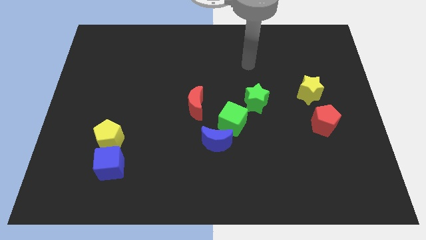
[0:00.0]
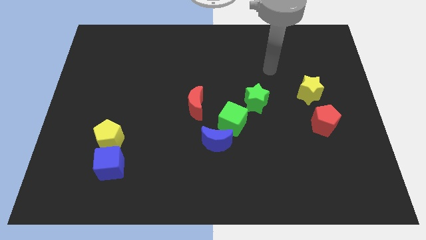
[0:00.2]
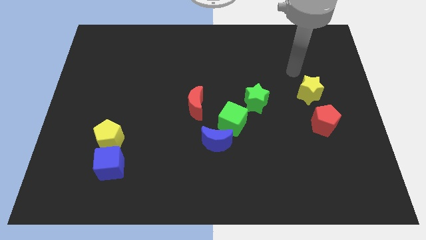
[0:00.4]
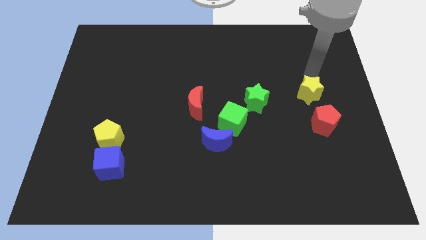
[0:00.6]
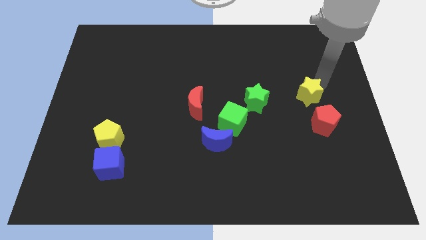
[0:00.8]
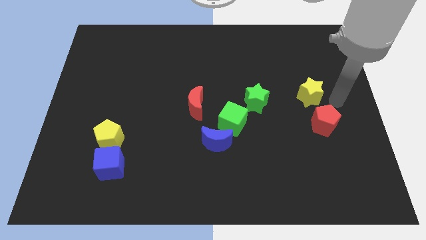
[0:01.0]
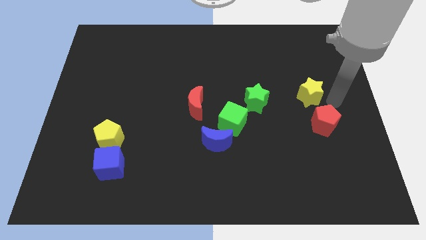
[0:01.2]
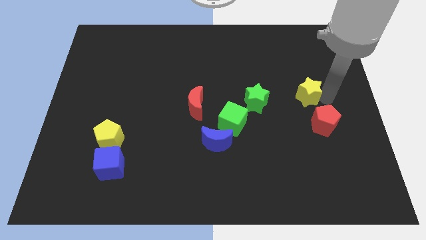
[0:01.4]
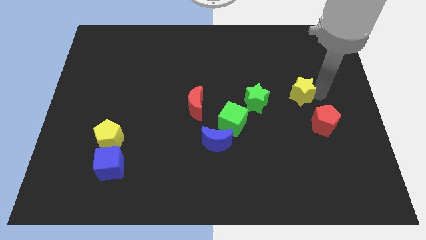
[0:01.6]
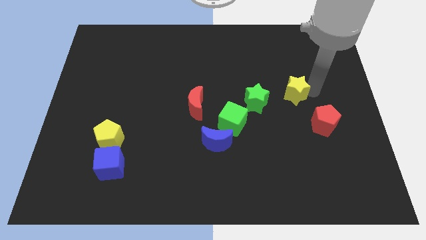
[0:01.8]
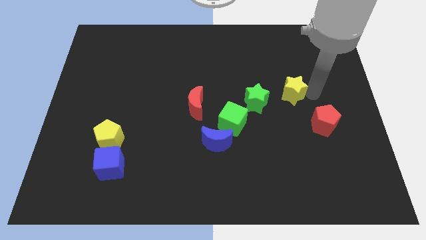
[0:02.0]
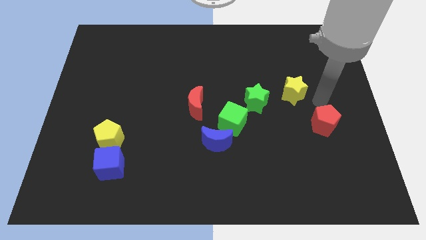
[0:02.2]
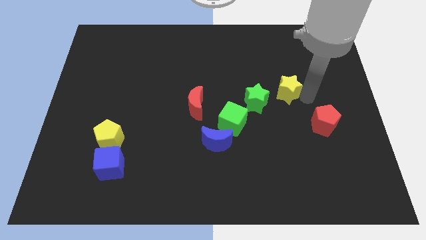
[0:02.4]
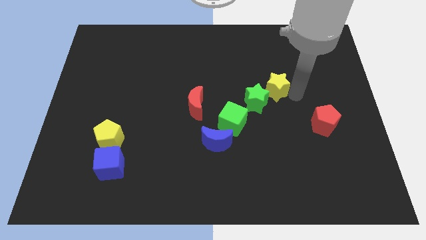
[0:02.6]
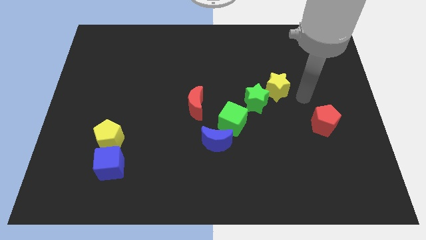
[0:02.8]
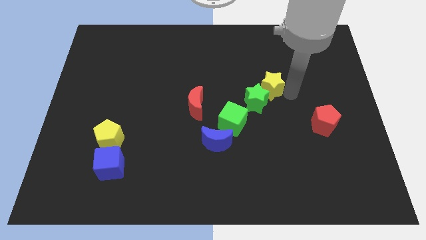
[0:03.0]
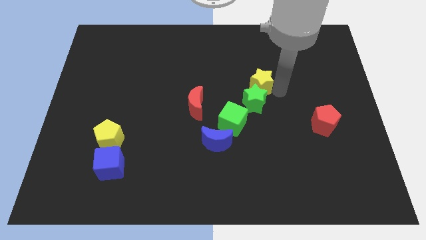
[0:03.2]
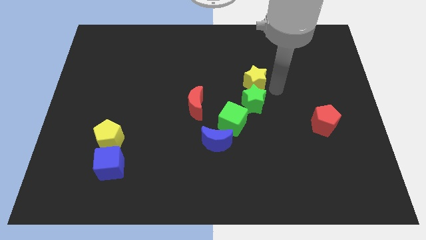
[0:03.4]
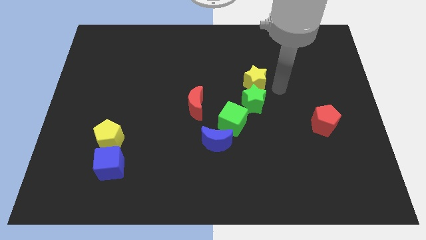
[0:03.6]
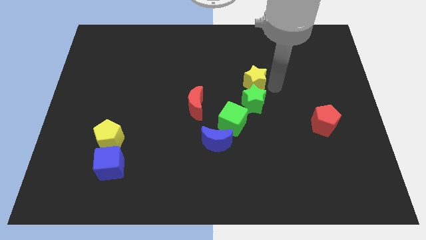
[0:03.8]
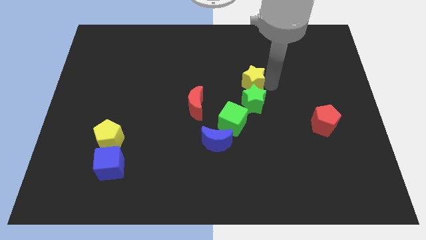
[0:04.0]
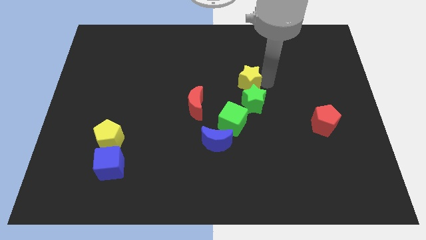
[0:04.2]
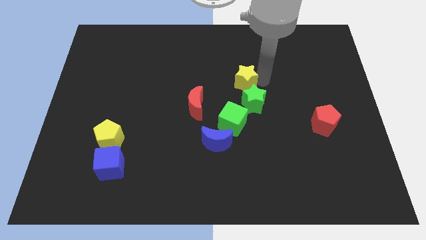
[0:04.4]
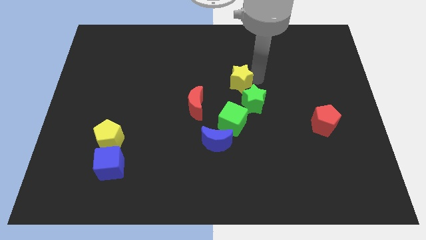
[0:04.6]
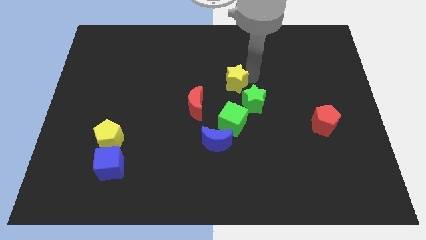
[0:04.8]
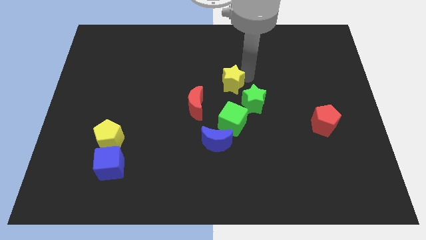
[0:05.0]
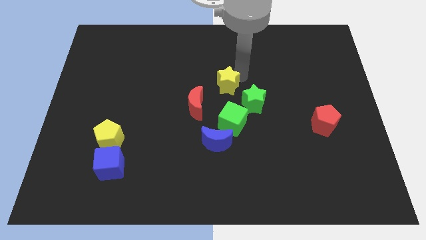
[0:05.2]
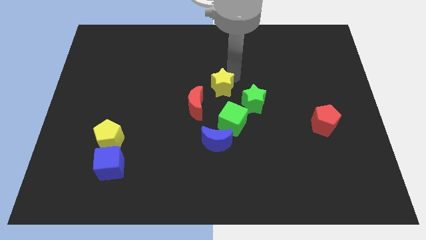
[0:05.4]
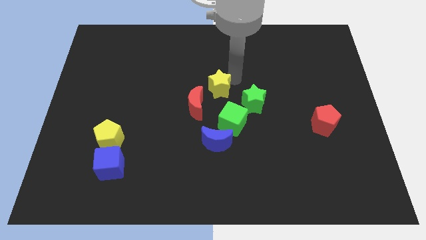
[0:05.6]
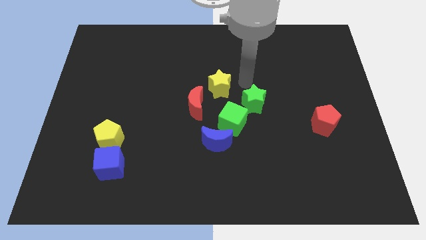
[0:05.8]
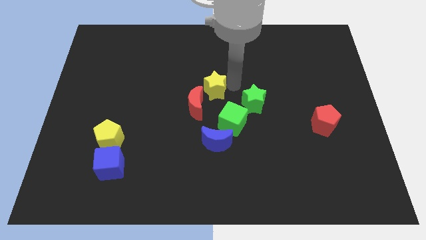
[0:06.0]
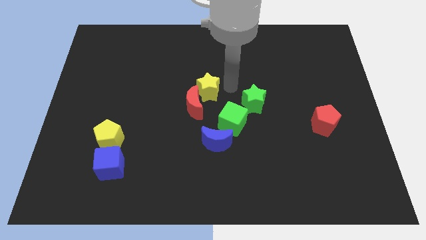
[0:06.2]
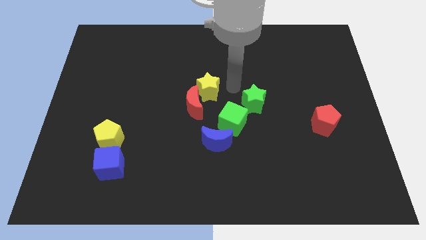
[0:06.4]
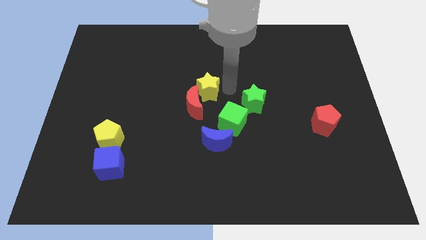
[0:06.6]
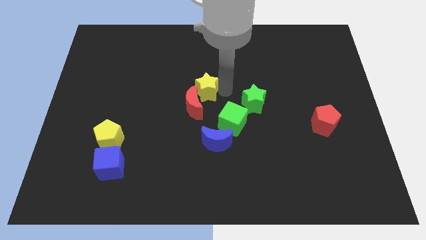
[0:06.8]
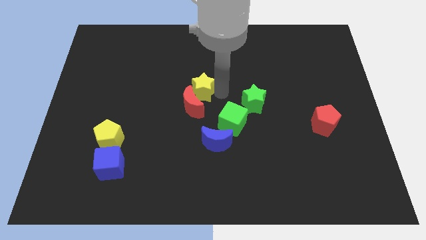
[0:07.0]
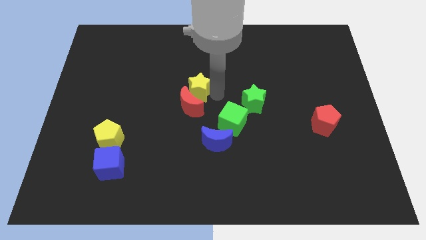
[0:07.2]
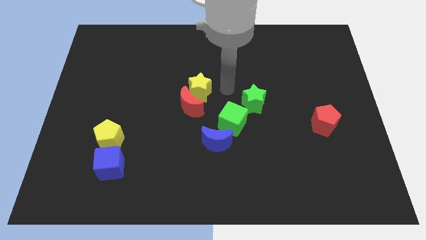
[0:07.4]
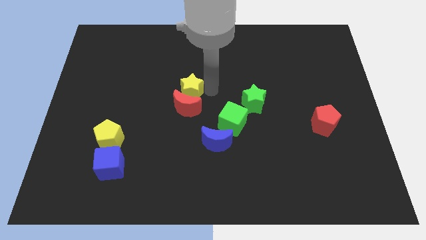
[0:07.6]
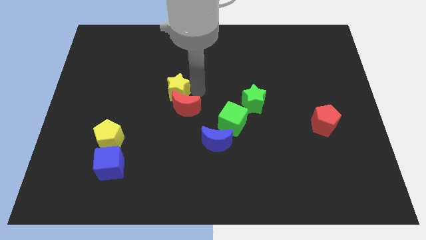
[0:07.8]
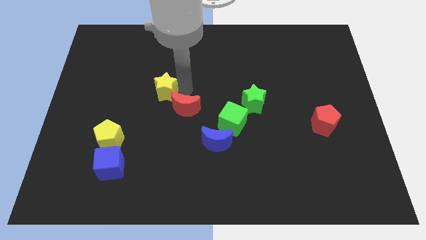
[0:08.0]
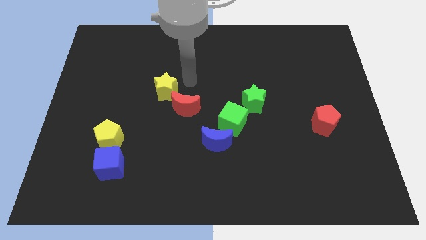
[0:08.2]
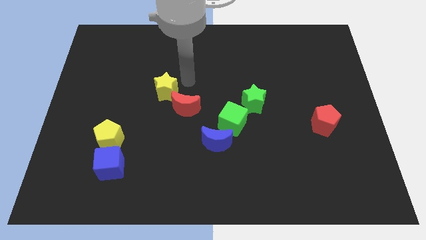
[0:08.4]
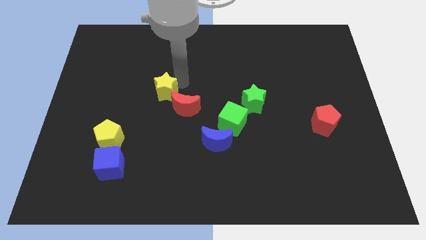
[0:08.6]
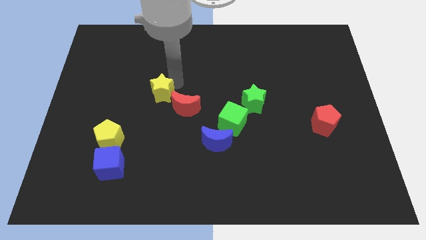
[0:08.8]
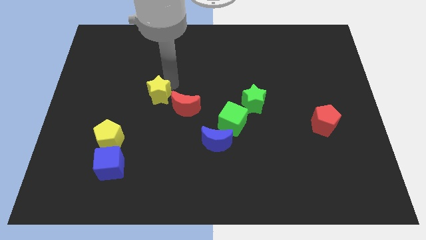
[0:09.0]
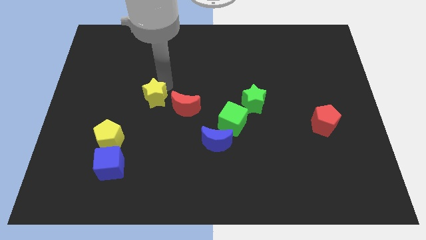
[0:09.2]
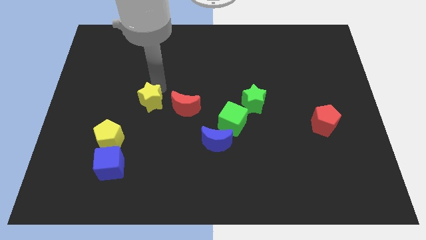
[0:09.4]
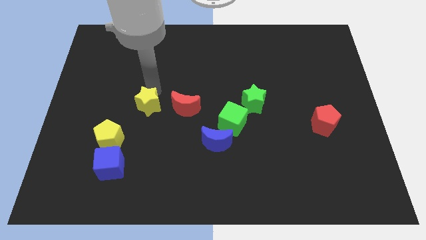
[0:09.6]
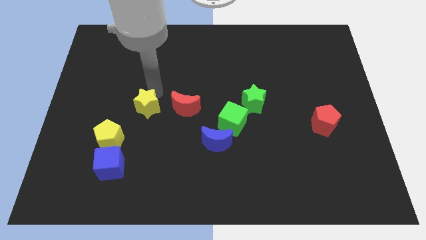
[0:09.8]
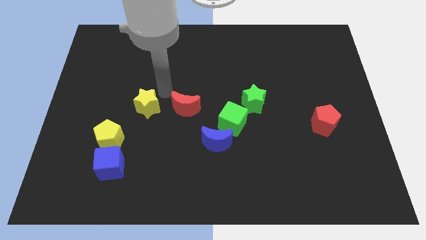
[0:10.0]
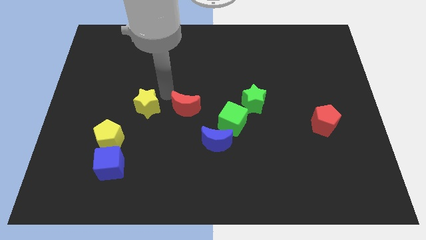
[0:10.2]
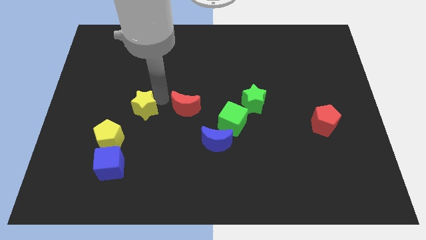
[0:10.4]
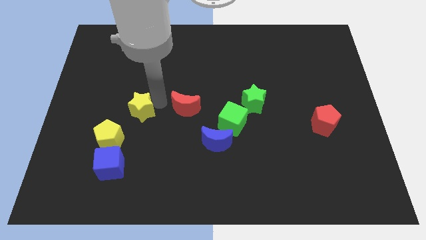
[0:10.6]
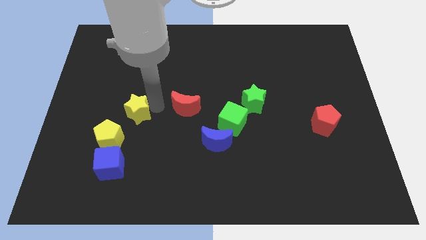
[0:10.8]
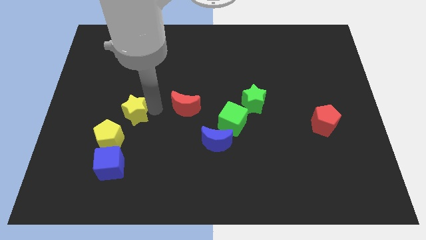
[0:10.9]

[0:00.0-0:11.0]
put the yellow star to the top of the blue cube

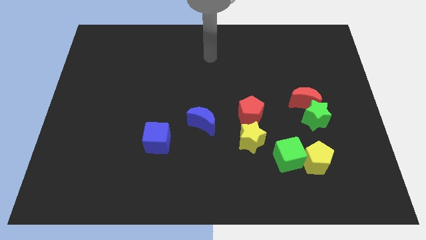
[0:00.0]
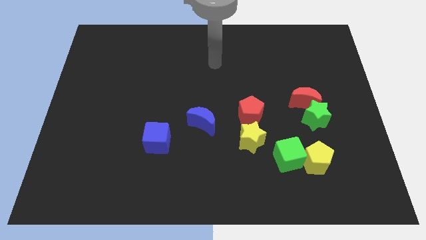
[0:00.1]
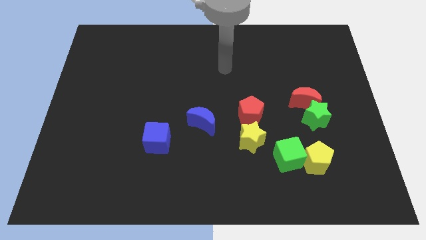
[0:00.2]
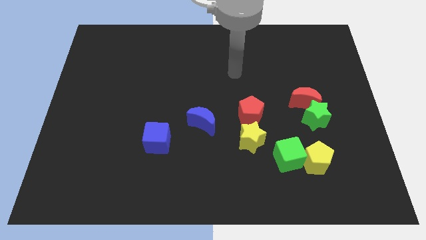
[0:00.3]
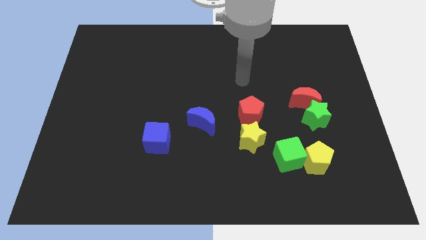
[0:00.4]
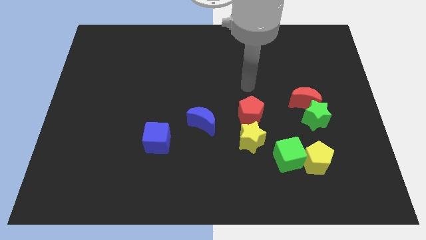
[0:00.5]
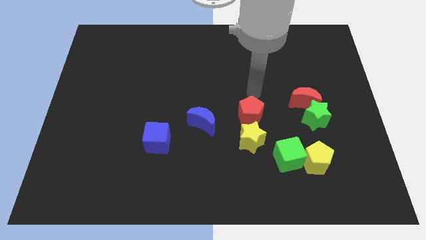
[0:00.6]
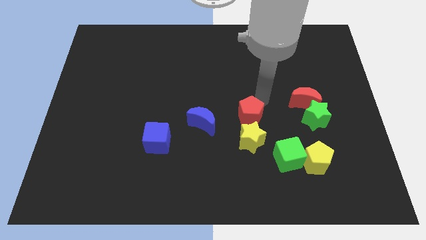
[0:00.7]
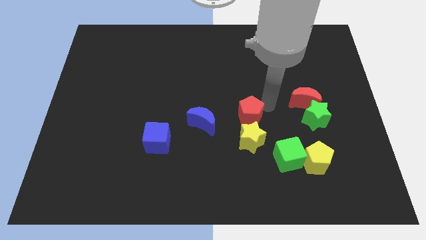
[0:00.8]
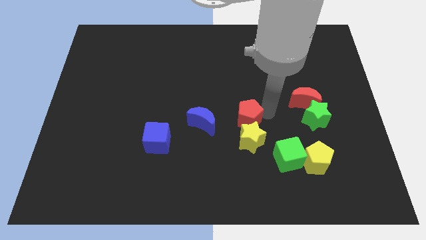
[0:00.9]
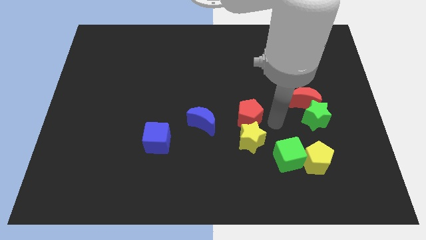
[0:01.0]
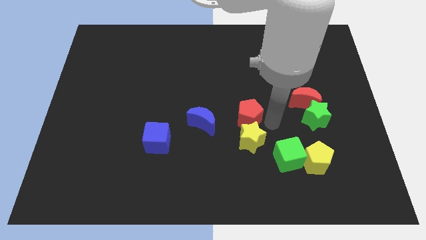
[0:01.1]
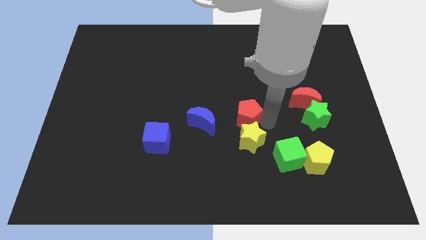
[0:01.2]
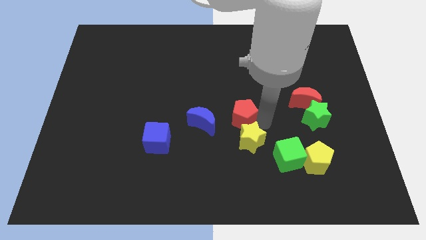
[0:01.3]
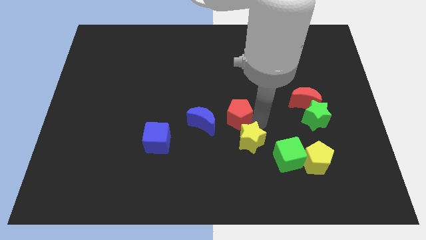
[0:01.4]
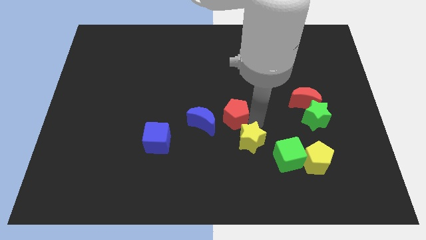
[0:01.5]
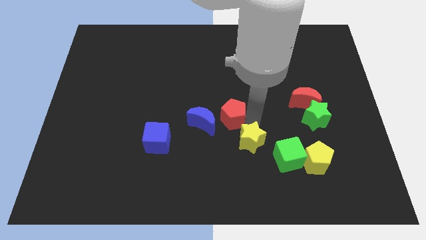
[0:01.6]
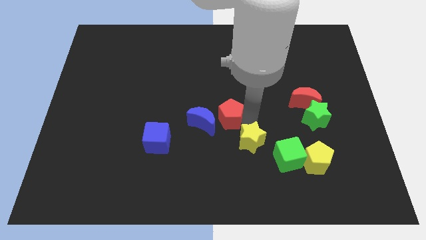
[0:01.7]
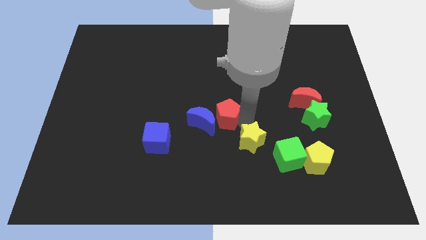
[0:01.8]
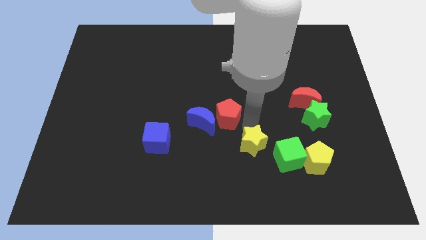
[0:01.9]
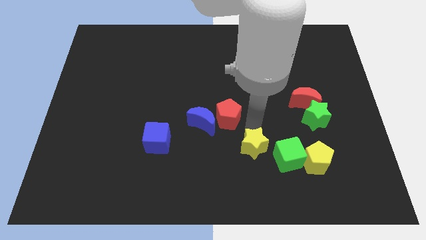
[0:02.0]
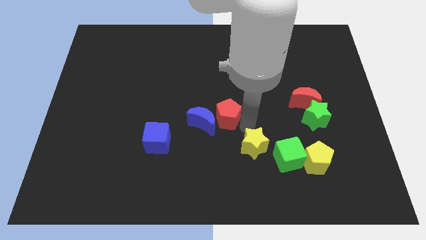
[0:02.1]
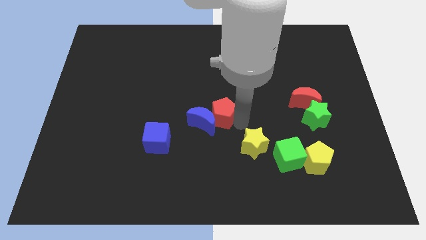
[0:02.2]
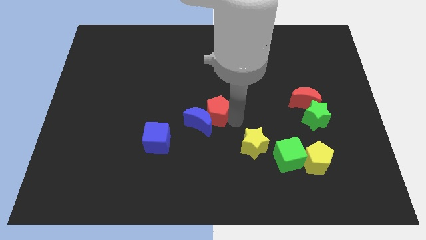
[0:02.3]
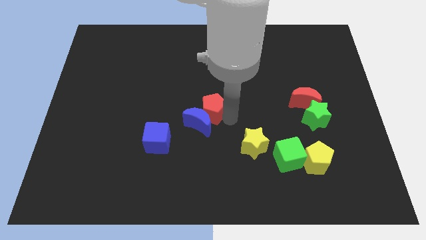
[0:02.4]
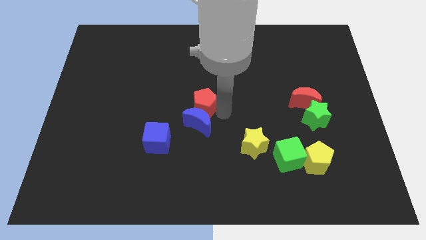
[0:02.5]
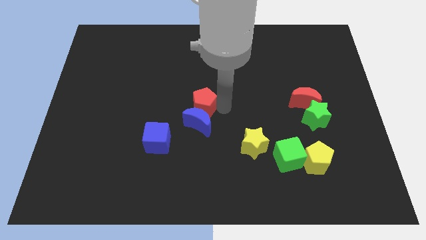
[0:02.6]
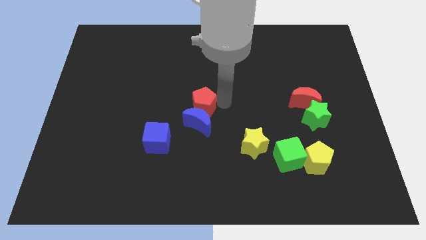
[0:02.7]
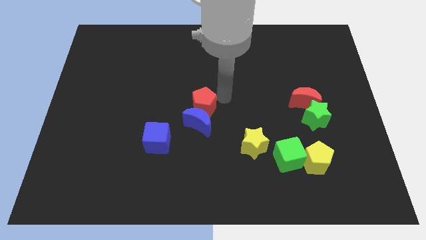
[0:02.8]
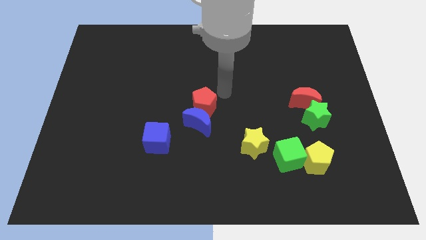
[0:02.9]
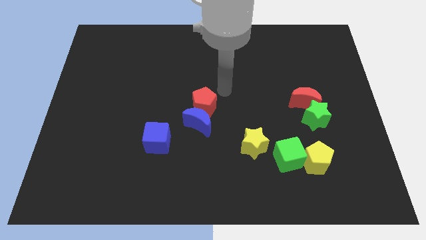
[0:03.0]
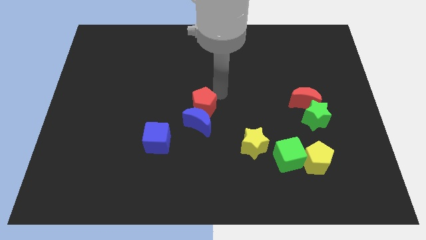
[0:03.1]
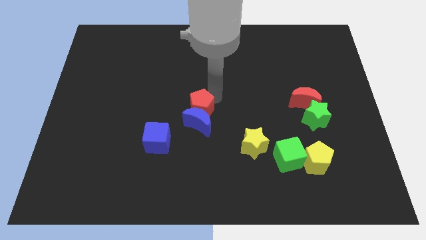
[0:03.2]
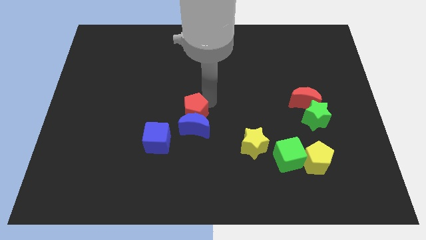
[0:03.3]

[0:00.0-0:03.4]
push the red pentagon to the top right of the blue cube
